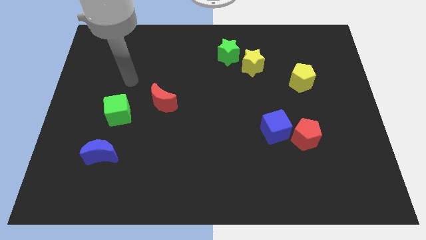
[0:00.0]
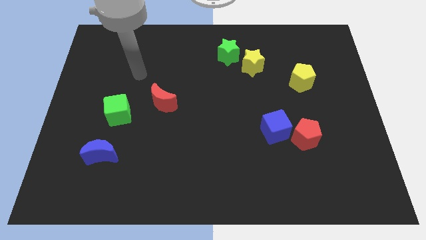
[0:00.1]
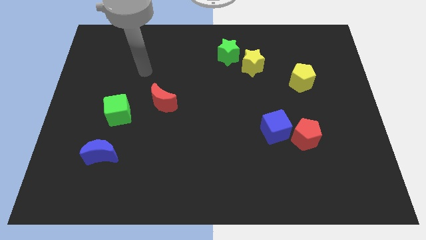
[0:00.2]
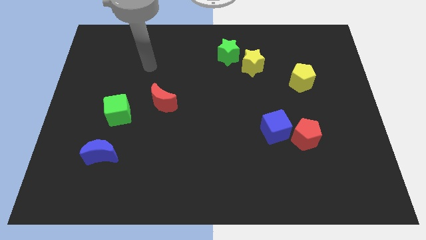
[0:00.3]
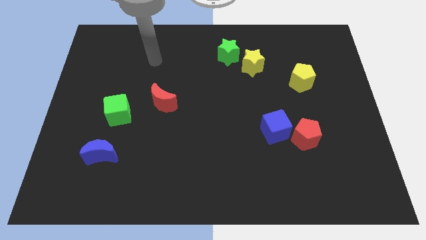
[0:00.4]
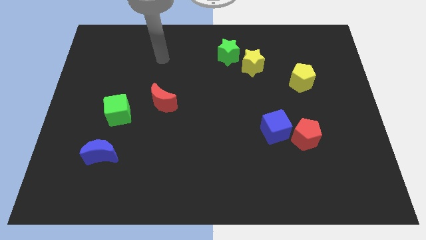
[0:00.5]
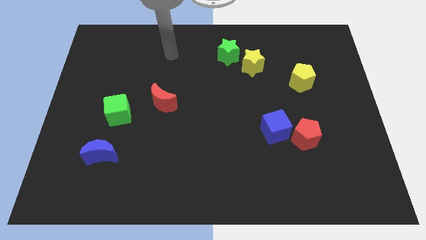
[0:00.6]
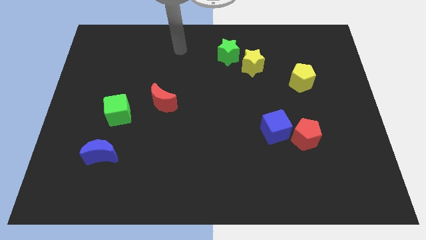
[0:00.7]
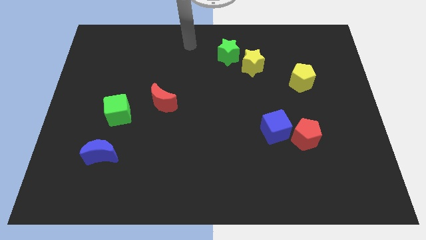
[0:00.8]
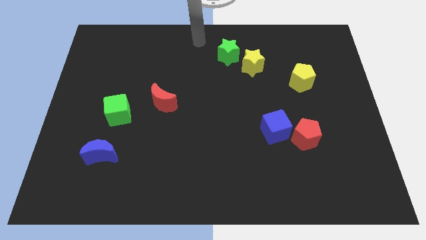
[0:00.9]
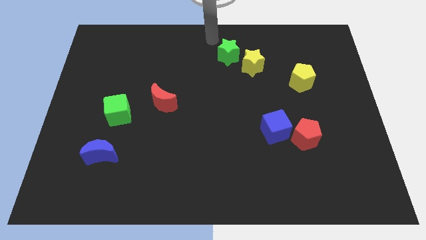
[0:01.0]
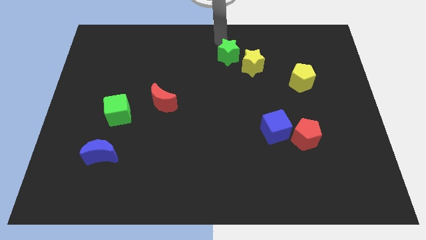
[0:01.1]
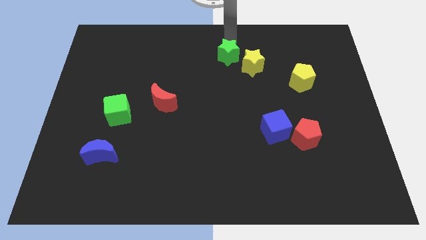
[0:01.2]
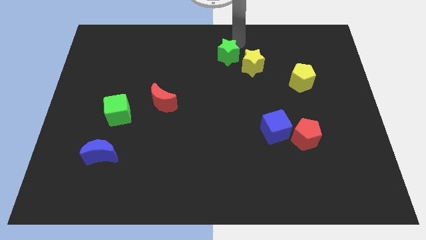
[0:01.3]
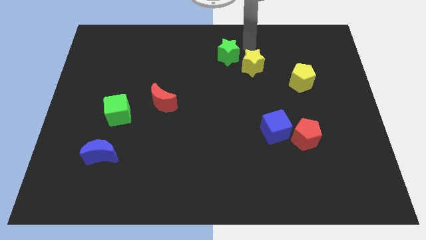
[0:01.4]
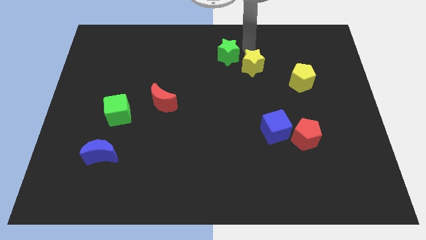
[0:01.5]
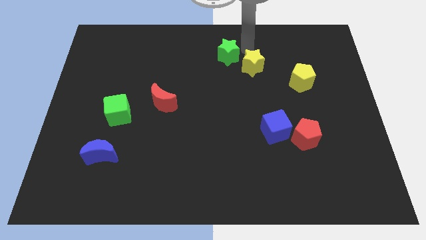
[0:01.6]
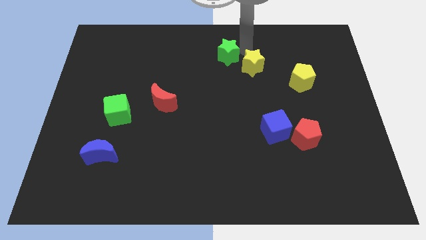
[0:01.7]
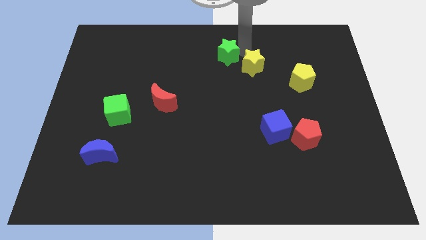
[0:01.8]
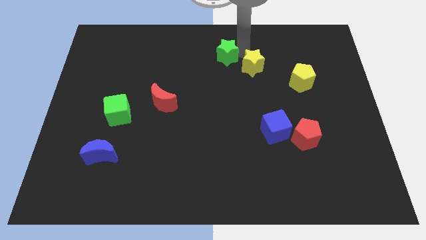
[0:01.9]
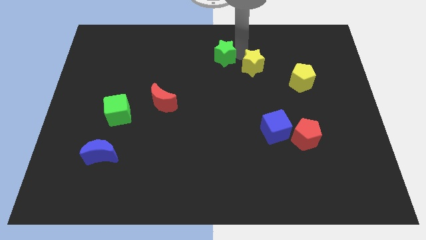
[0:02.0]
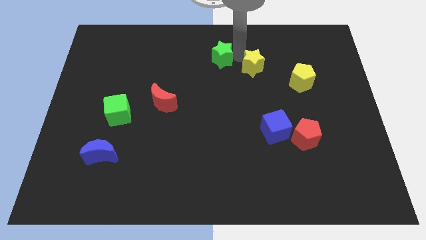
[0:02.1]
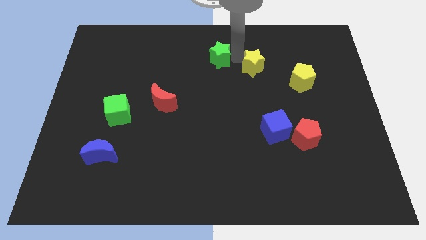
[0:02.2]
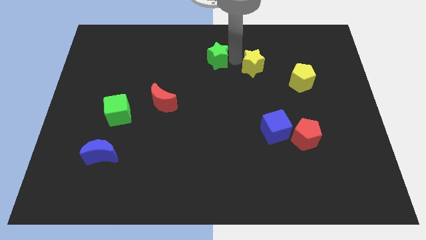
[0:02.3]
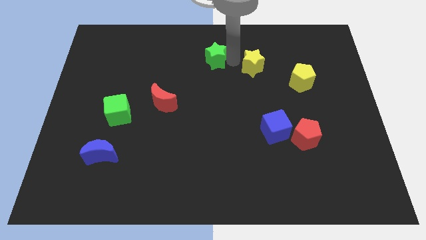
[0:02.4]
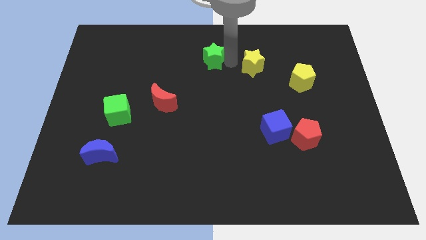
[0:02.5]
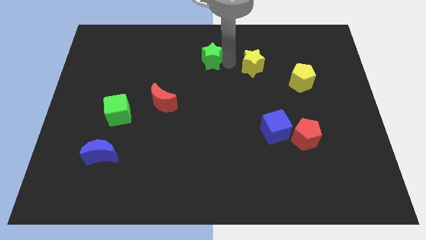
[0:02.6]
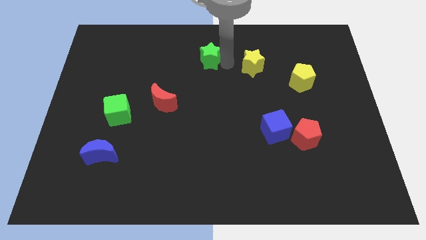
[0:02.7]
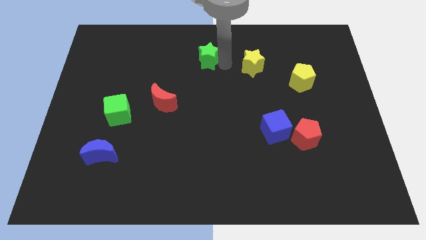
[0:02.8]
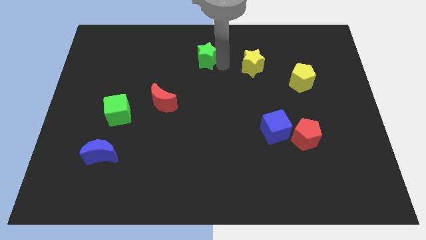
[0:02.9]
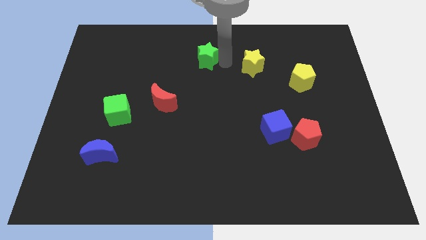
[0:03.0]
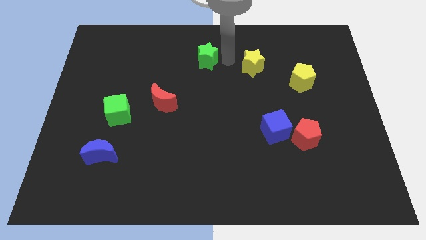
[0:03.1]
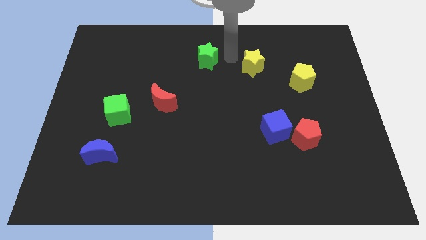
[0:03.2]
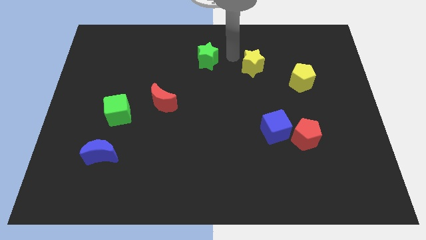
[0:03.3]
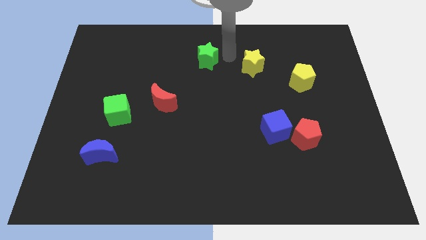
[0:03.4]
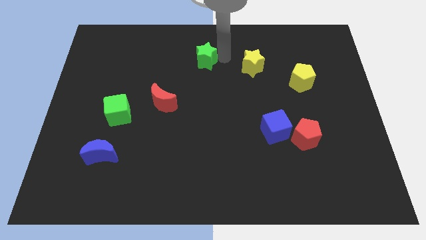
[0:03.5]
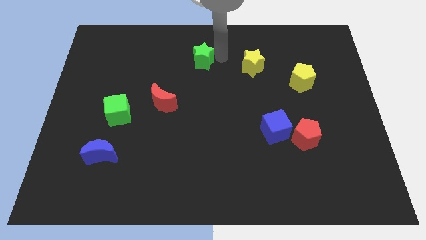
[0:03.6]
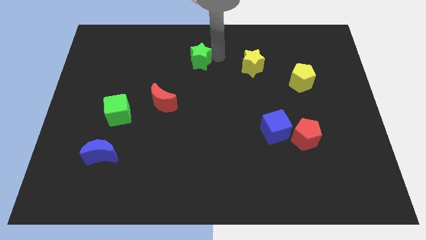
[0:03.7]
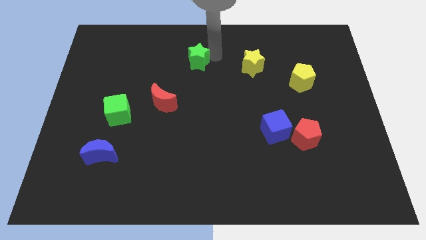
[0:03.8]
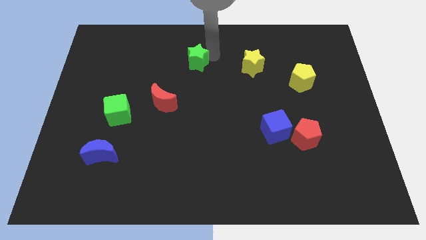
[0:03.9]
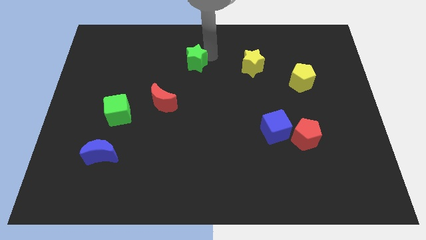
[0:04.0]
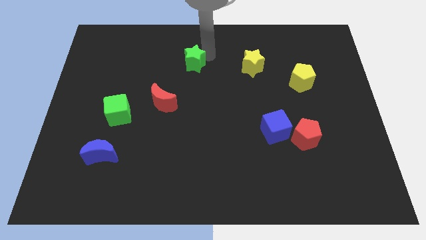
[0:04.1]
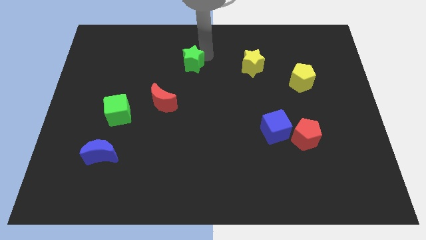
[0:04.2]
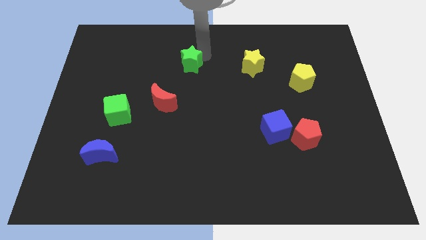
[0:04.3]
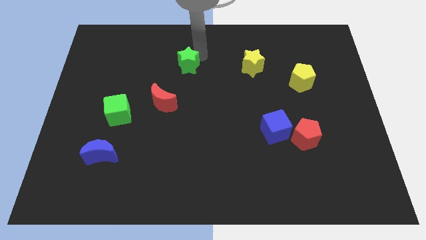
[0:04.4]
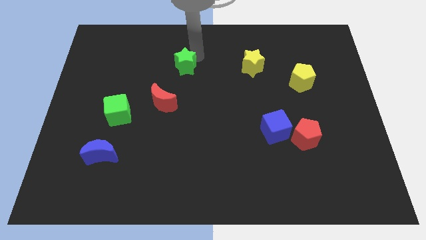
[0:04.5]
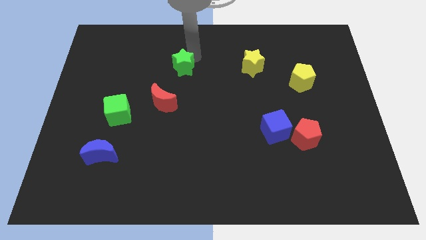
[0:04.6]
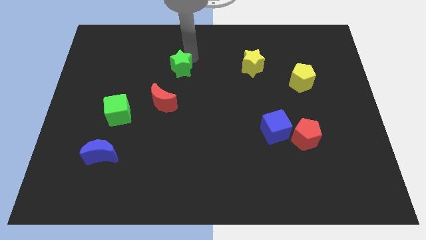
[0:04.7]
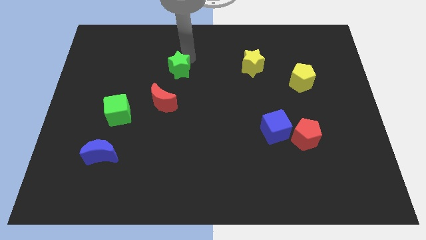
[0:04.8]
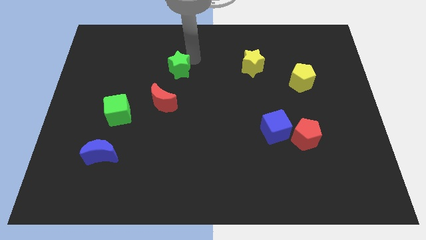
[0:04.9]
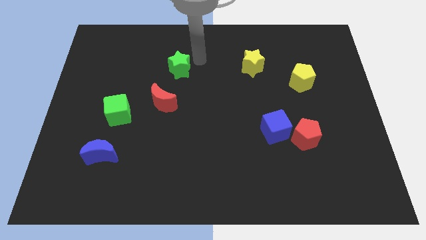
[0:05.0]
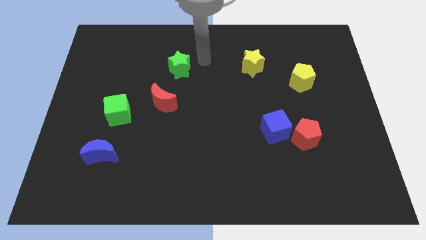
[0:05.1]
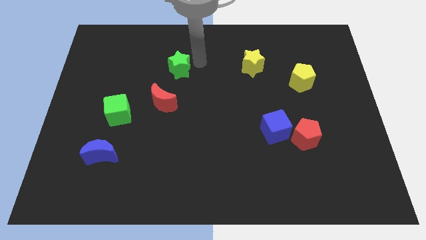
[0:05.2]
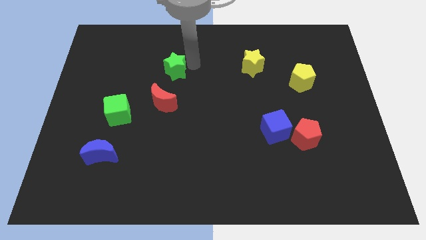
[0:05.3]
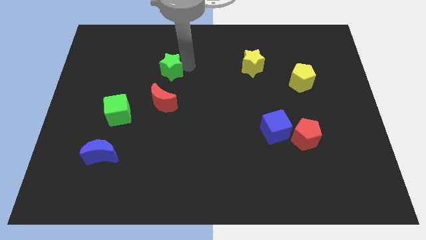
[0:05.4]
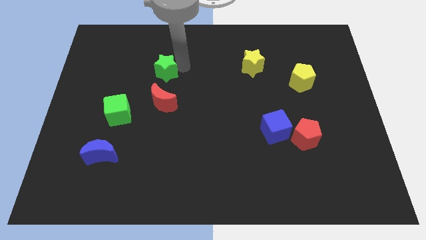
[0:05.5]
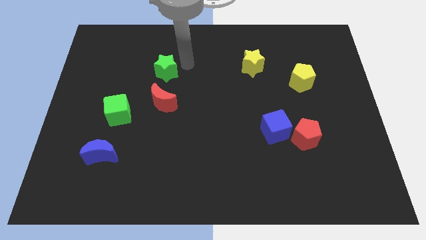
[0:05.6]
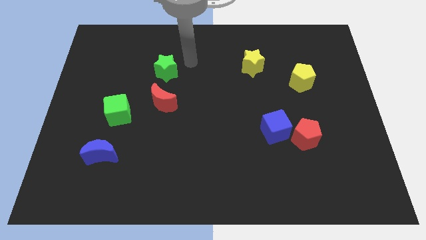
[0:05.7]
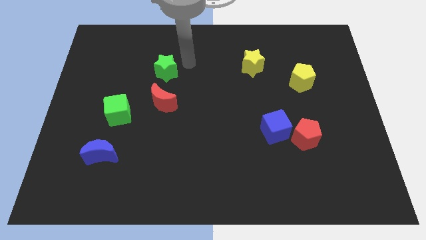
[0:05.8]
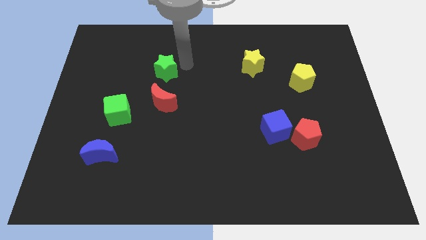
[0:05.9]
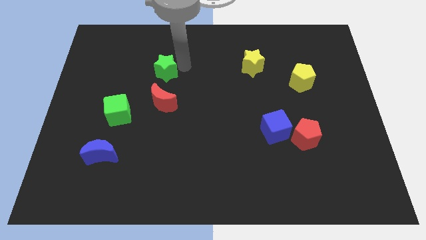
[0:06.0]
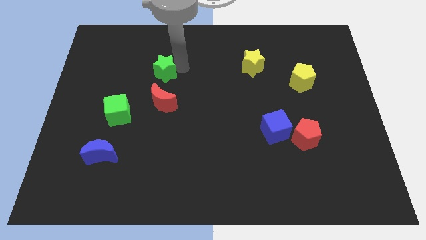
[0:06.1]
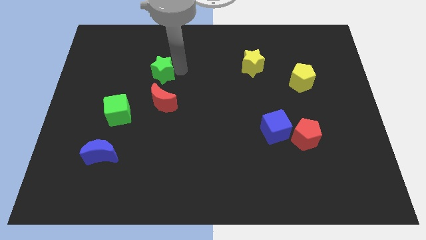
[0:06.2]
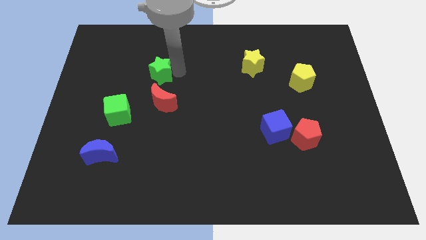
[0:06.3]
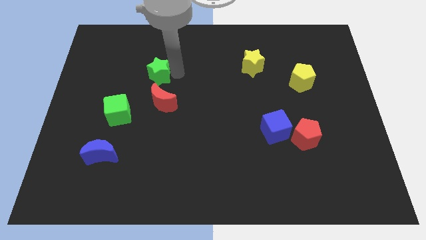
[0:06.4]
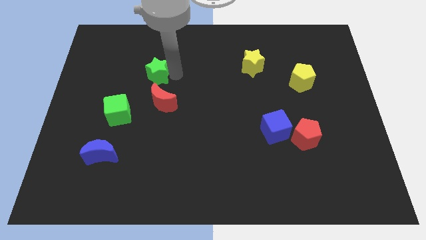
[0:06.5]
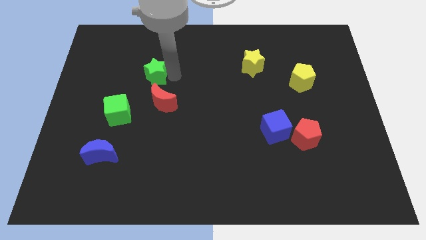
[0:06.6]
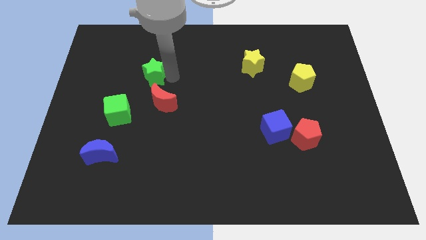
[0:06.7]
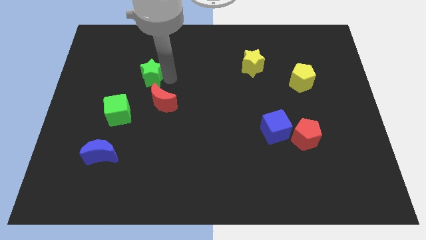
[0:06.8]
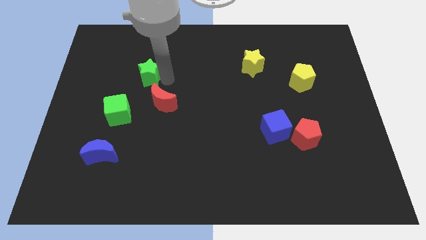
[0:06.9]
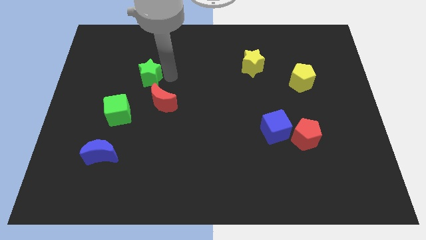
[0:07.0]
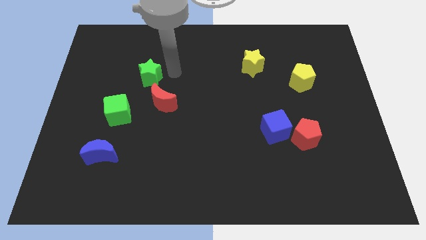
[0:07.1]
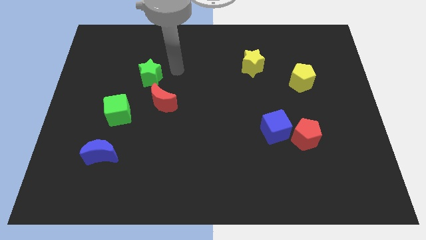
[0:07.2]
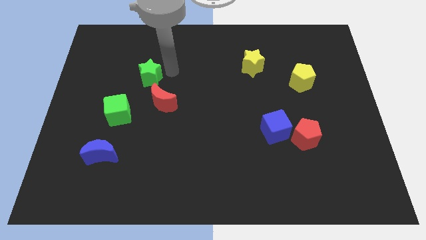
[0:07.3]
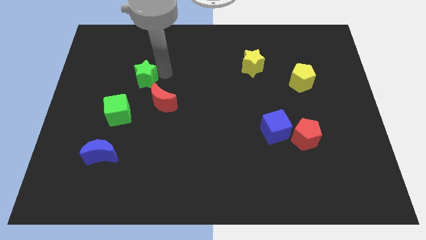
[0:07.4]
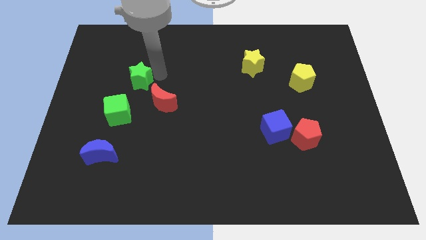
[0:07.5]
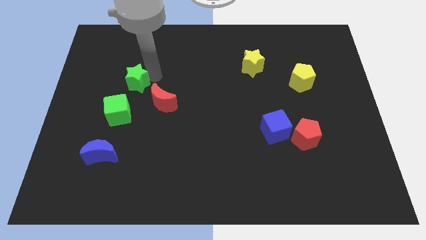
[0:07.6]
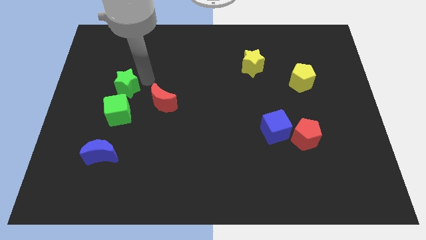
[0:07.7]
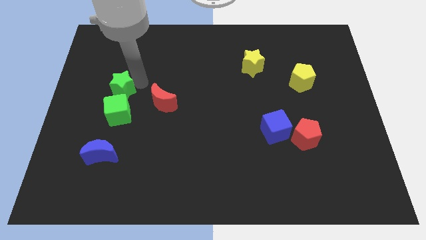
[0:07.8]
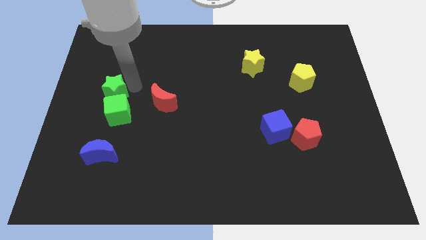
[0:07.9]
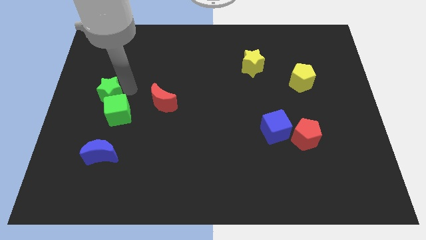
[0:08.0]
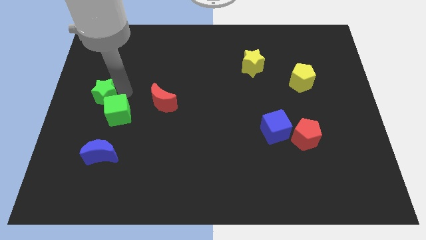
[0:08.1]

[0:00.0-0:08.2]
put the green star to the left side of the board
